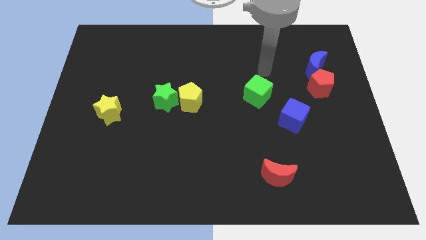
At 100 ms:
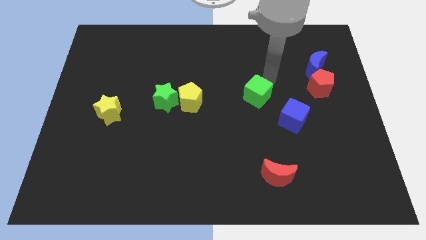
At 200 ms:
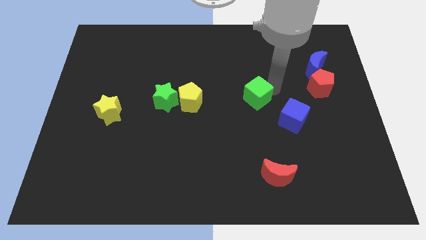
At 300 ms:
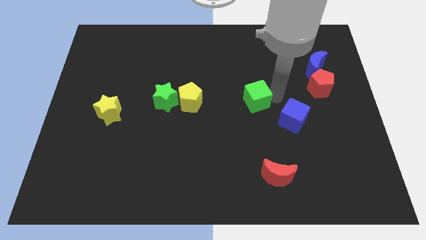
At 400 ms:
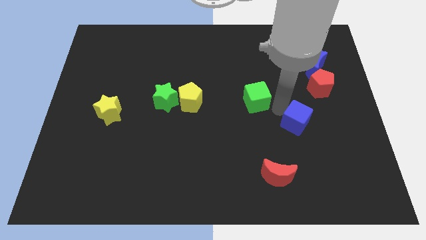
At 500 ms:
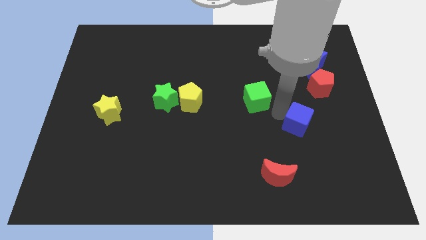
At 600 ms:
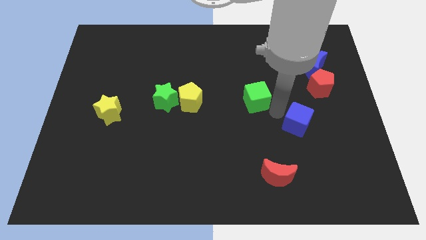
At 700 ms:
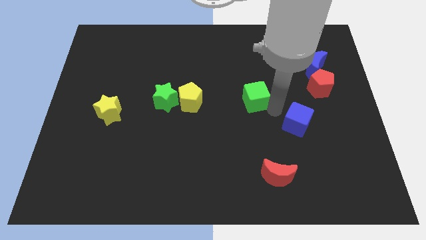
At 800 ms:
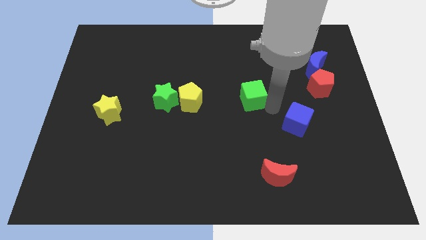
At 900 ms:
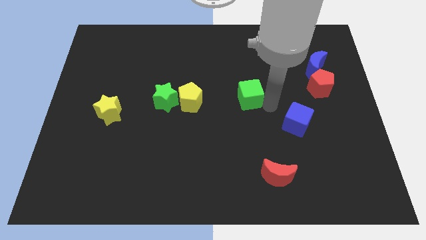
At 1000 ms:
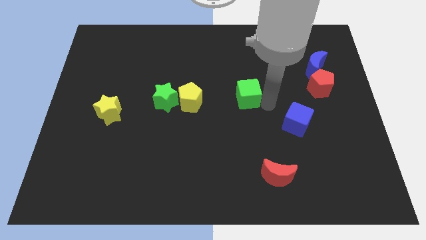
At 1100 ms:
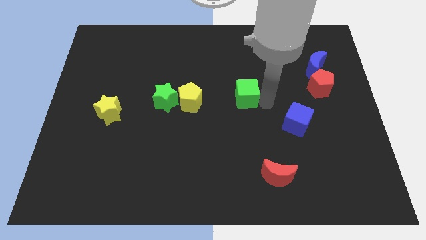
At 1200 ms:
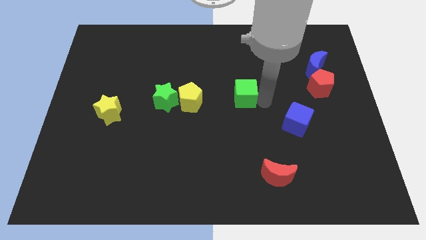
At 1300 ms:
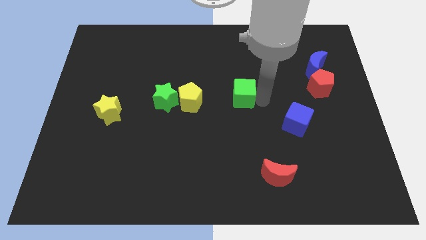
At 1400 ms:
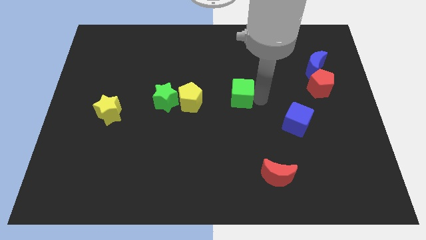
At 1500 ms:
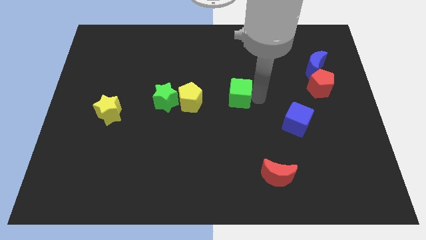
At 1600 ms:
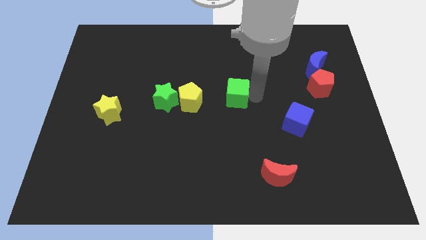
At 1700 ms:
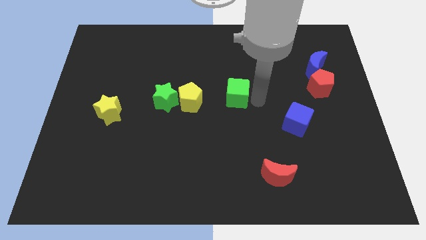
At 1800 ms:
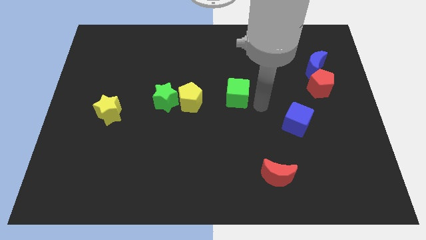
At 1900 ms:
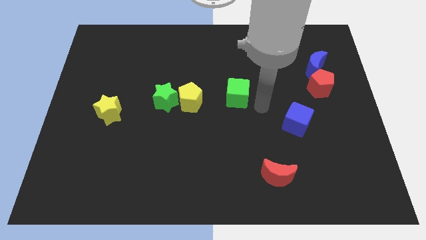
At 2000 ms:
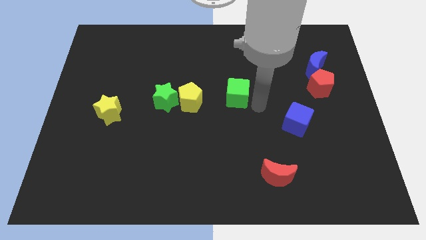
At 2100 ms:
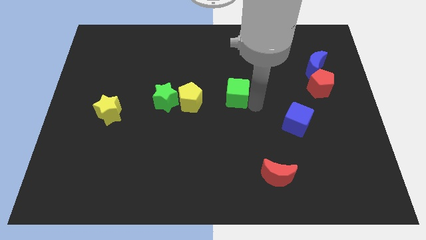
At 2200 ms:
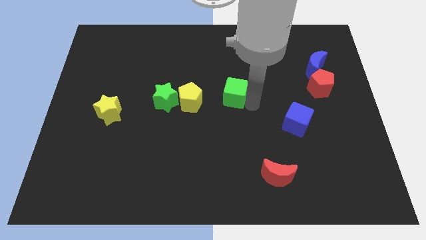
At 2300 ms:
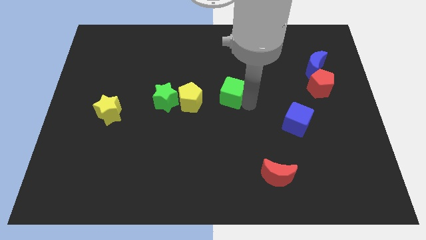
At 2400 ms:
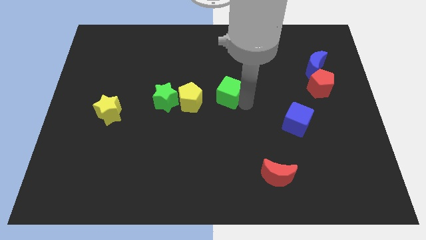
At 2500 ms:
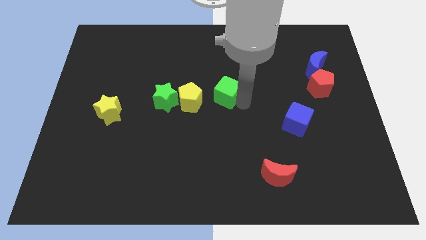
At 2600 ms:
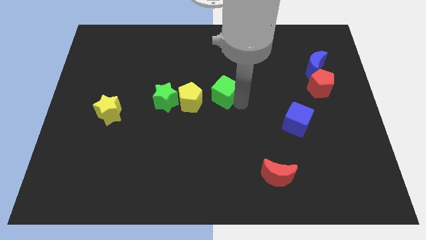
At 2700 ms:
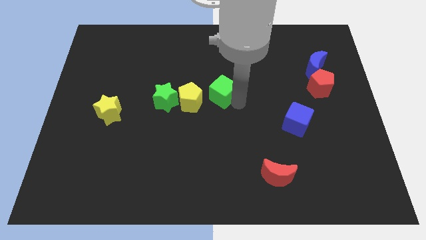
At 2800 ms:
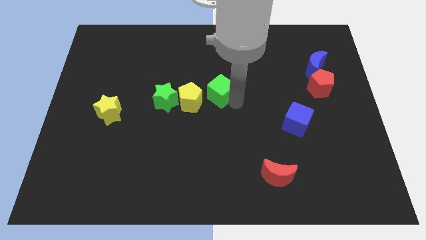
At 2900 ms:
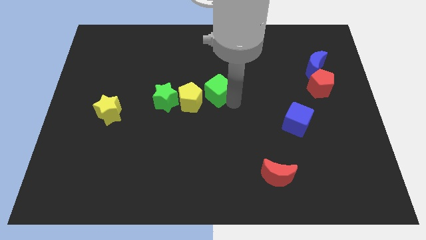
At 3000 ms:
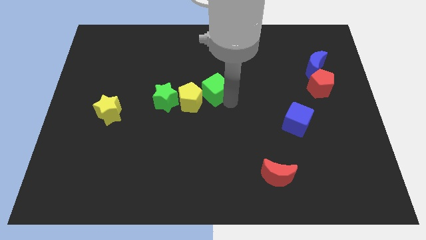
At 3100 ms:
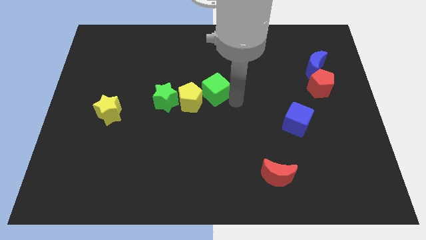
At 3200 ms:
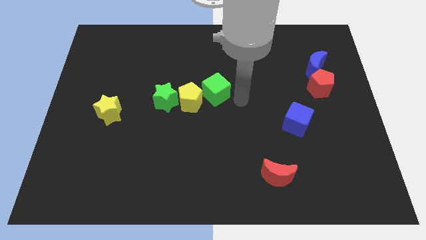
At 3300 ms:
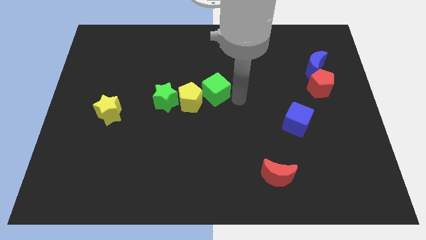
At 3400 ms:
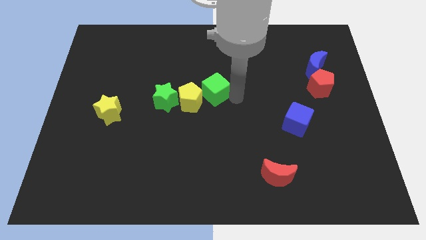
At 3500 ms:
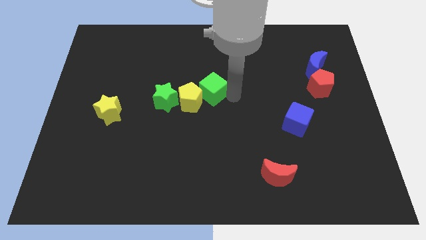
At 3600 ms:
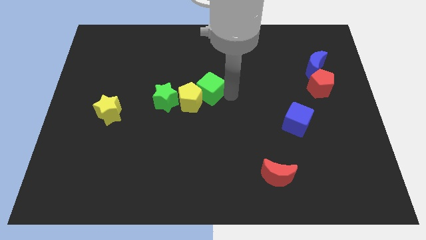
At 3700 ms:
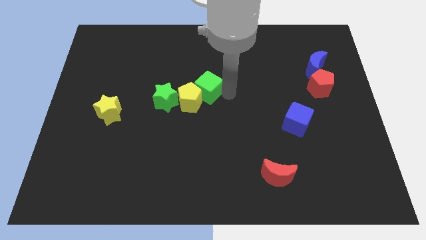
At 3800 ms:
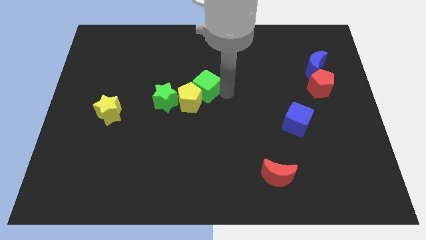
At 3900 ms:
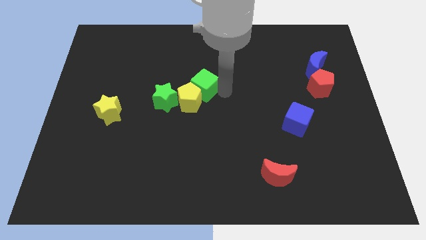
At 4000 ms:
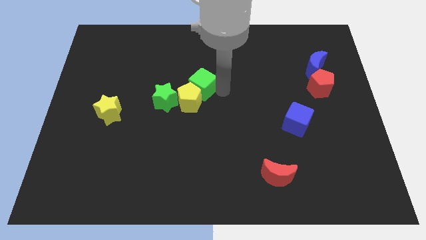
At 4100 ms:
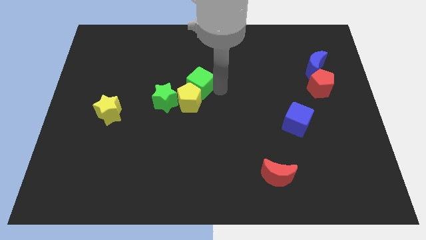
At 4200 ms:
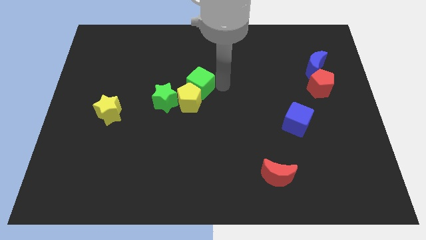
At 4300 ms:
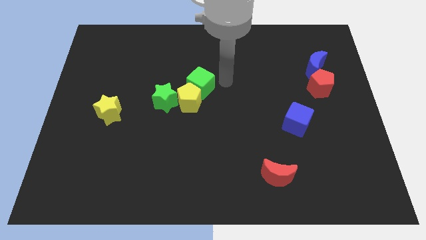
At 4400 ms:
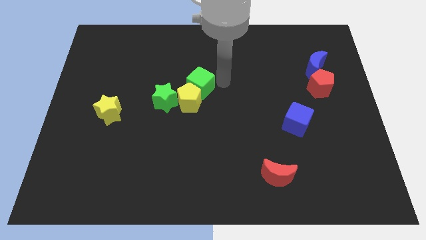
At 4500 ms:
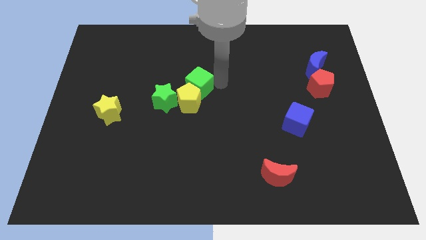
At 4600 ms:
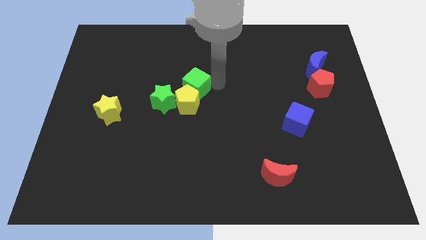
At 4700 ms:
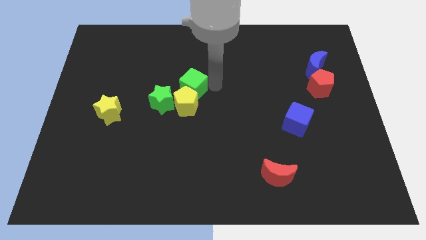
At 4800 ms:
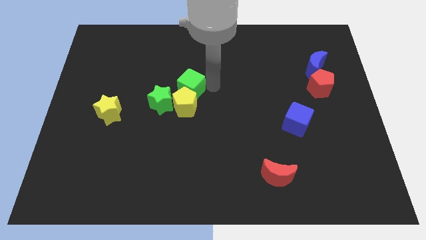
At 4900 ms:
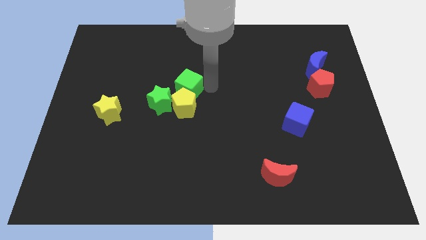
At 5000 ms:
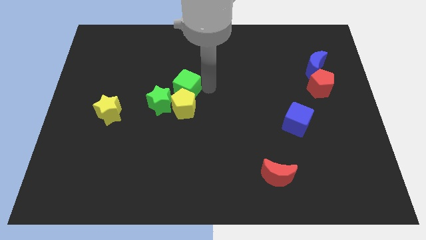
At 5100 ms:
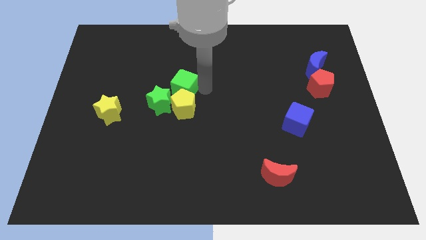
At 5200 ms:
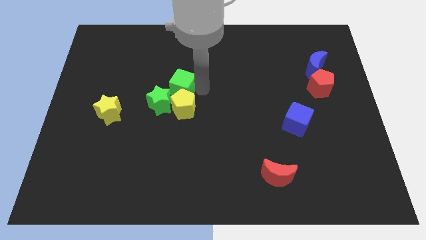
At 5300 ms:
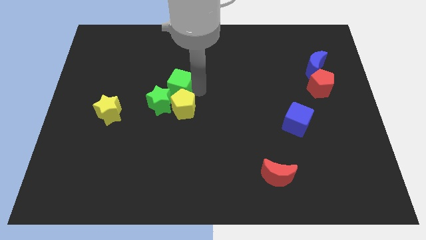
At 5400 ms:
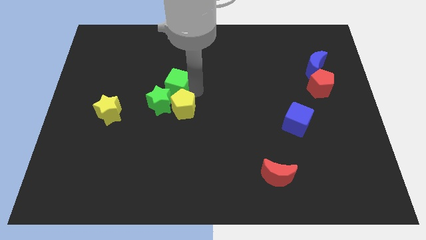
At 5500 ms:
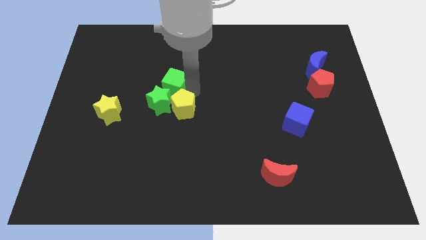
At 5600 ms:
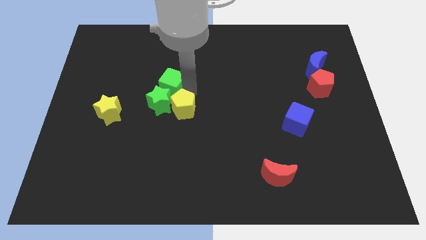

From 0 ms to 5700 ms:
move the green cube next to the green star

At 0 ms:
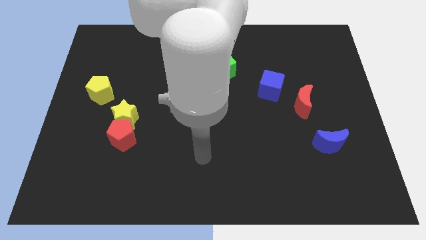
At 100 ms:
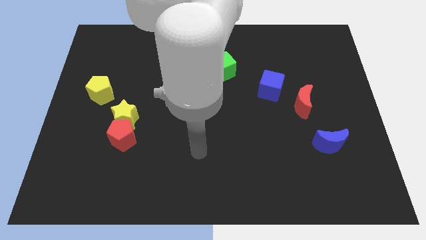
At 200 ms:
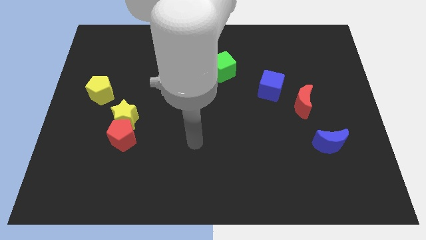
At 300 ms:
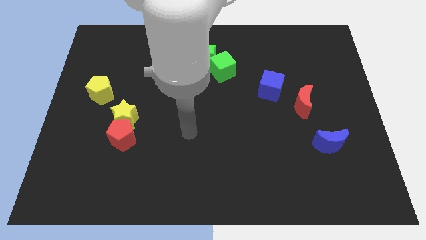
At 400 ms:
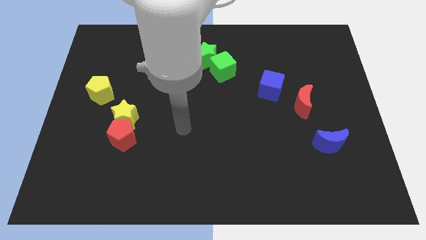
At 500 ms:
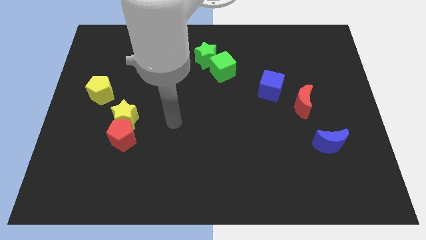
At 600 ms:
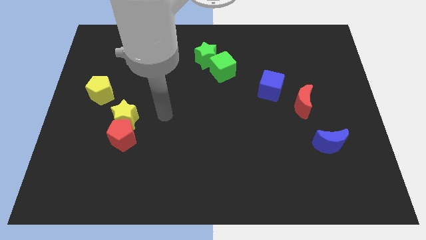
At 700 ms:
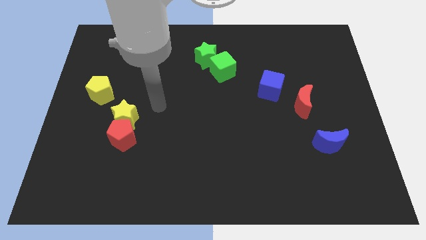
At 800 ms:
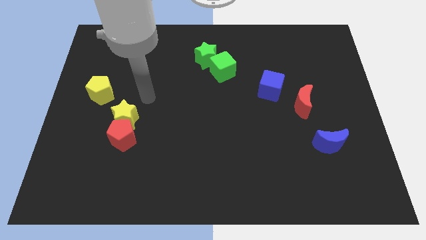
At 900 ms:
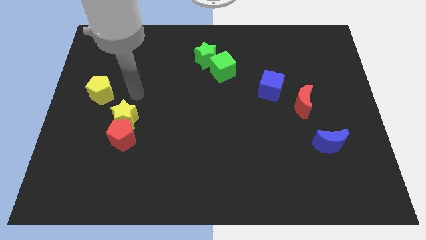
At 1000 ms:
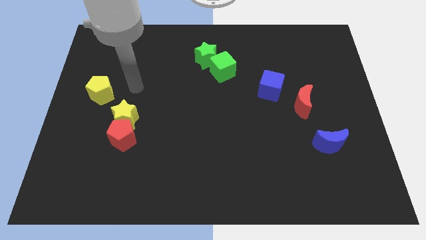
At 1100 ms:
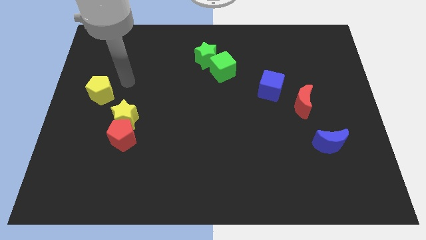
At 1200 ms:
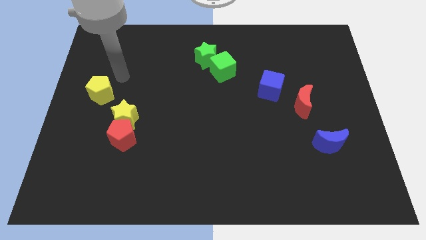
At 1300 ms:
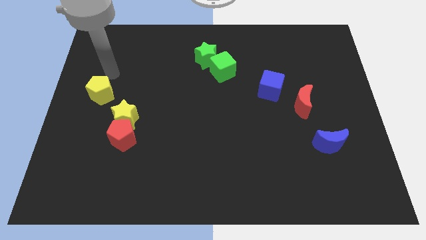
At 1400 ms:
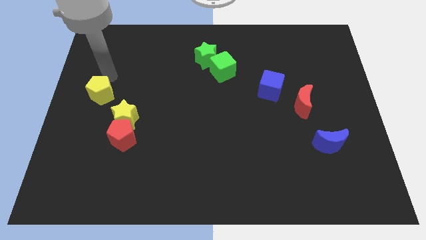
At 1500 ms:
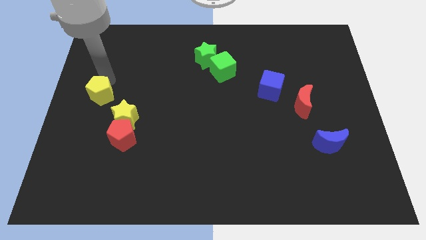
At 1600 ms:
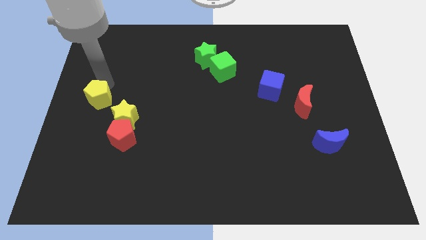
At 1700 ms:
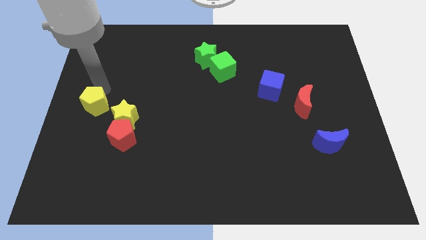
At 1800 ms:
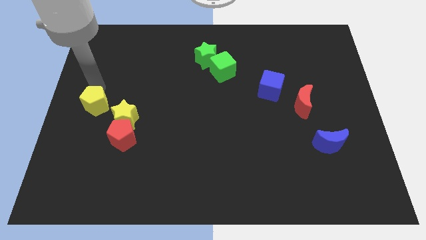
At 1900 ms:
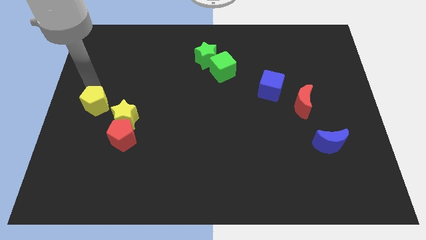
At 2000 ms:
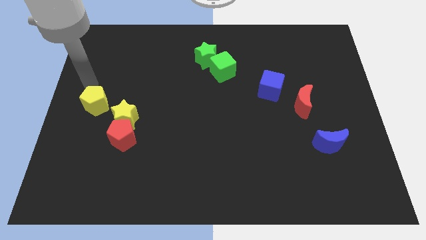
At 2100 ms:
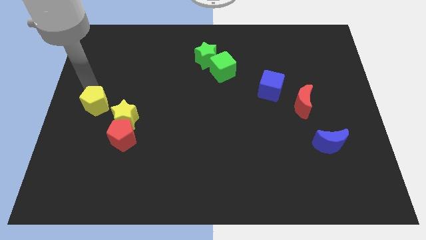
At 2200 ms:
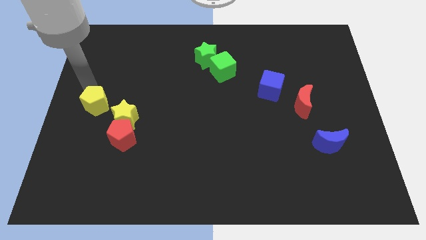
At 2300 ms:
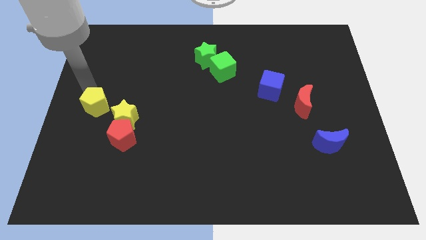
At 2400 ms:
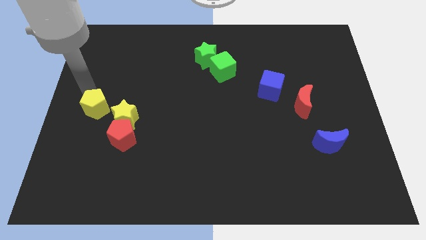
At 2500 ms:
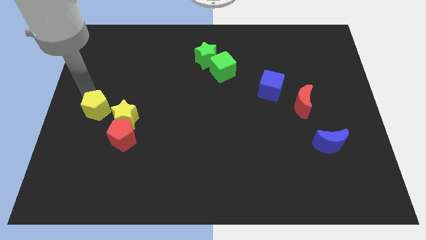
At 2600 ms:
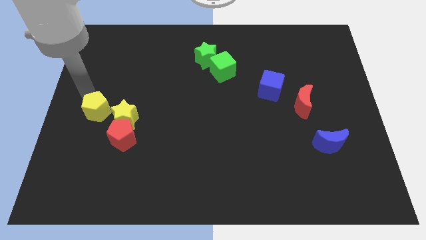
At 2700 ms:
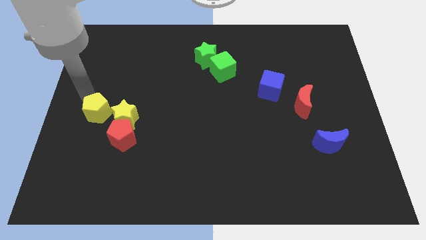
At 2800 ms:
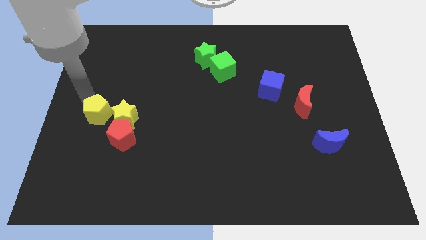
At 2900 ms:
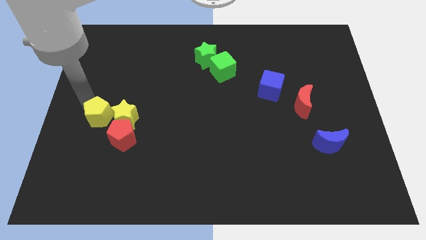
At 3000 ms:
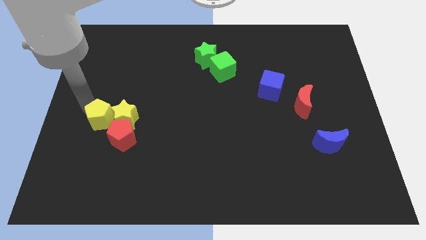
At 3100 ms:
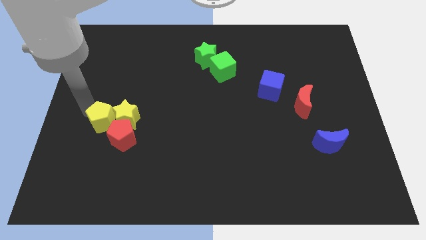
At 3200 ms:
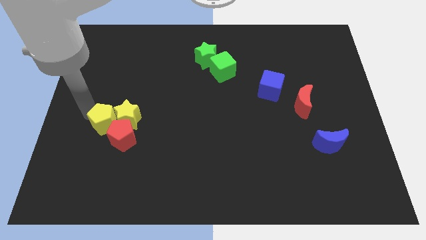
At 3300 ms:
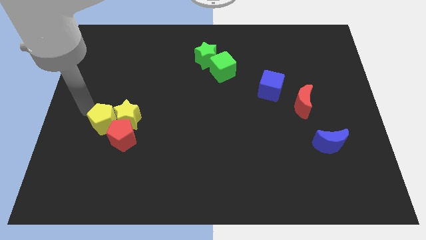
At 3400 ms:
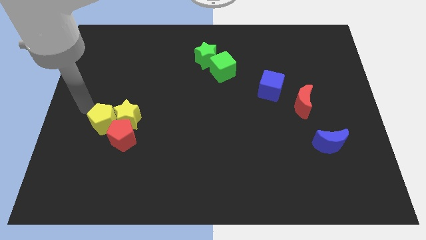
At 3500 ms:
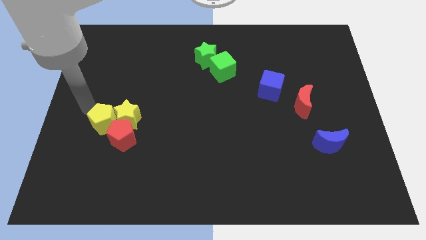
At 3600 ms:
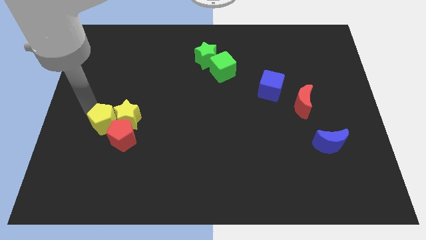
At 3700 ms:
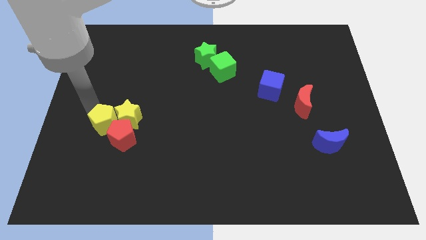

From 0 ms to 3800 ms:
move the yellow pentagon next to the red pentagon
